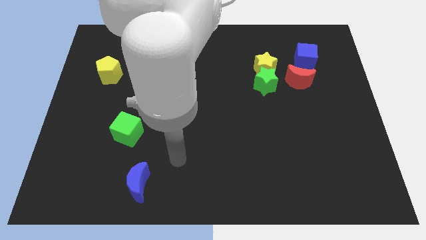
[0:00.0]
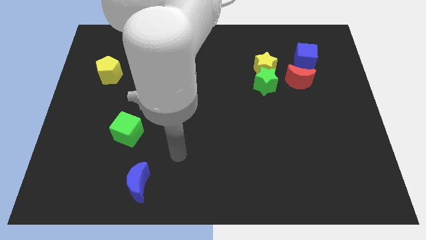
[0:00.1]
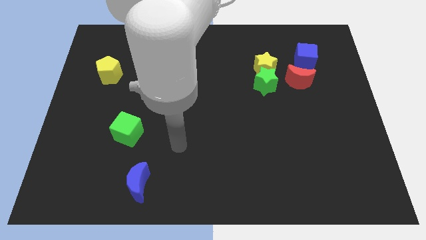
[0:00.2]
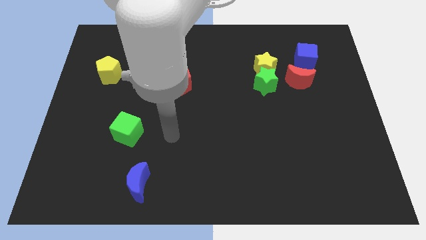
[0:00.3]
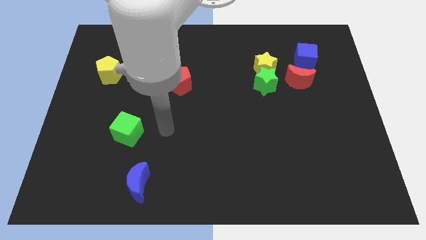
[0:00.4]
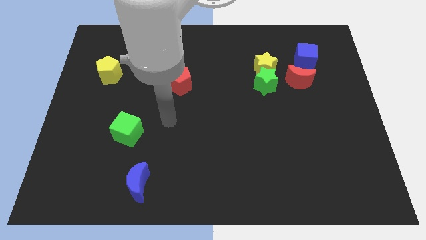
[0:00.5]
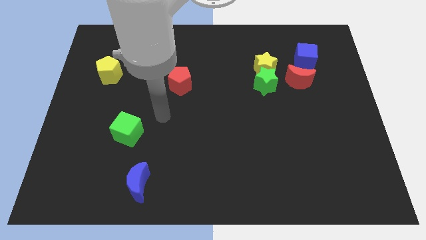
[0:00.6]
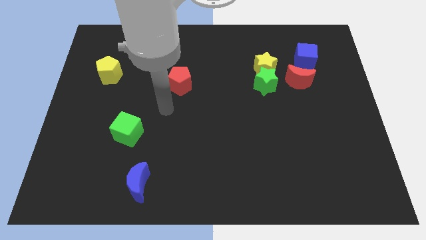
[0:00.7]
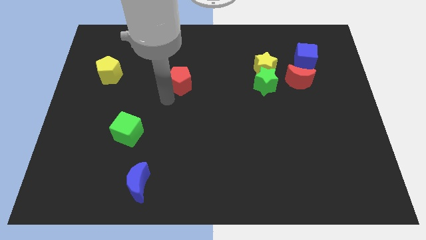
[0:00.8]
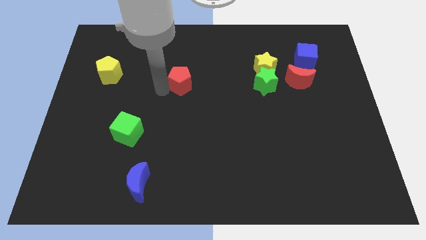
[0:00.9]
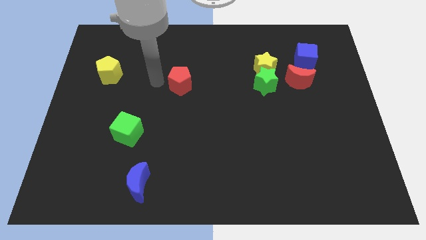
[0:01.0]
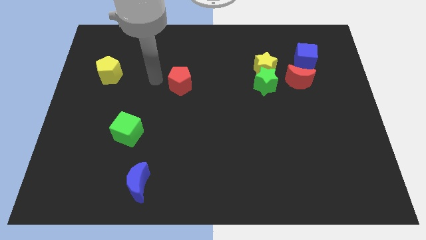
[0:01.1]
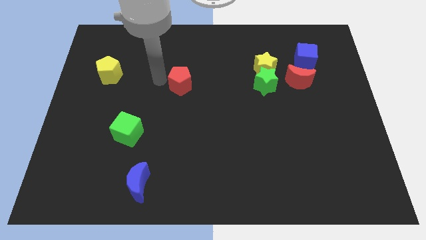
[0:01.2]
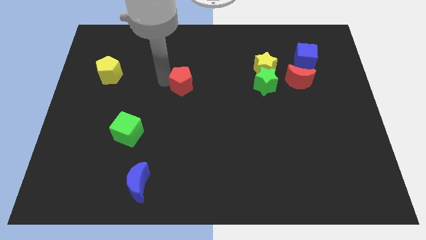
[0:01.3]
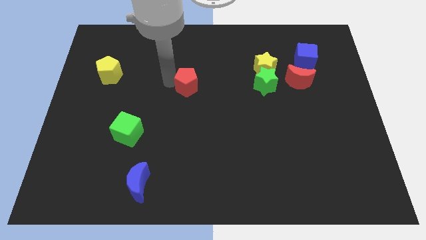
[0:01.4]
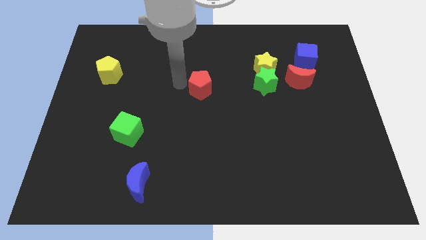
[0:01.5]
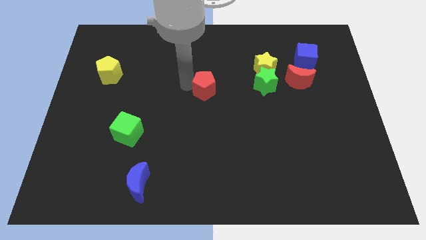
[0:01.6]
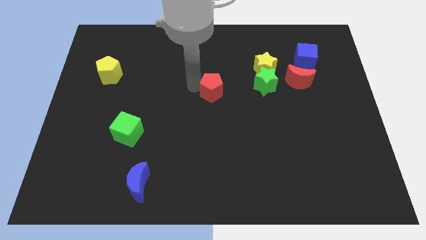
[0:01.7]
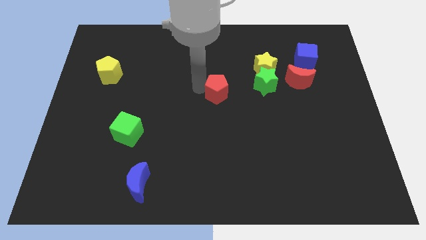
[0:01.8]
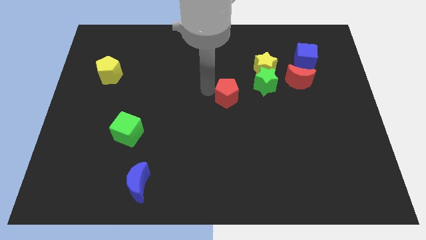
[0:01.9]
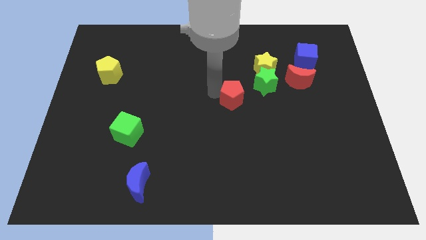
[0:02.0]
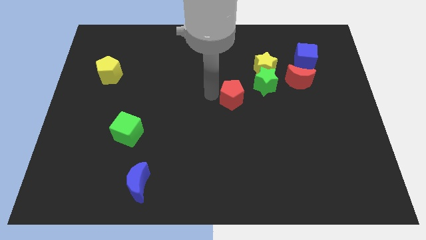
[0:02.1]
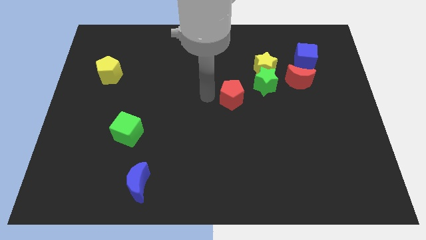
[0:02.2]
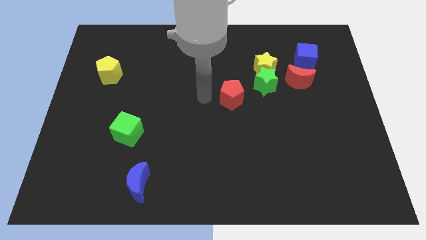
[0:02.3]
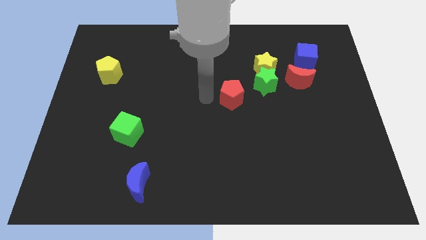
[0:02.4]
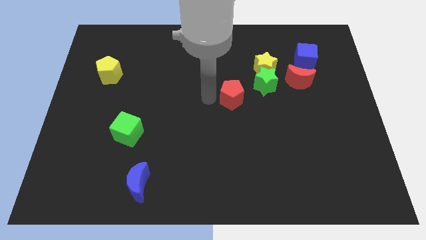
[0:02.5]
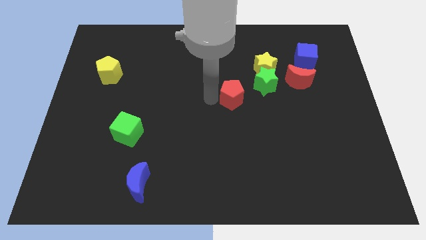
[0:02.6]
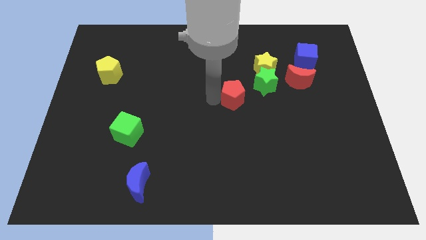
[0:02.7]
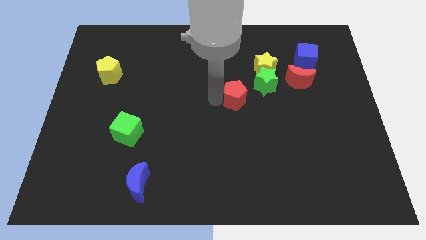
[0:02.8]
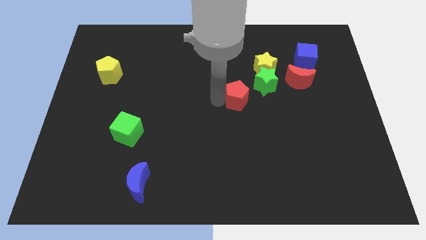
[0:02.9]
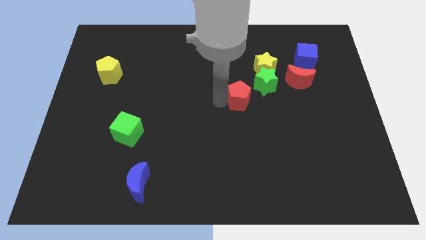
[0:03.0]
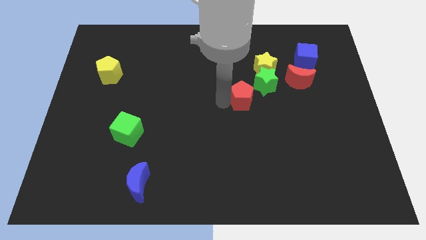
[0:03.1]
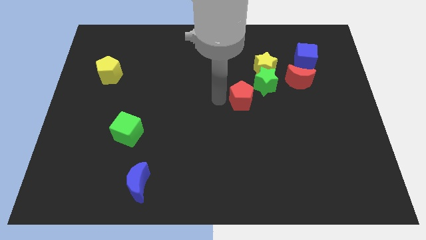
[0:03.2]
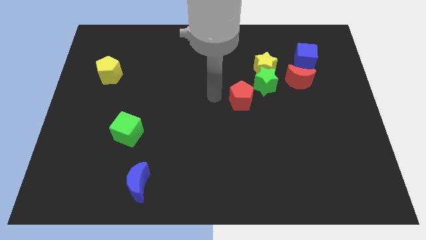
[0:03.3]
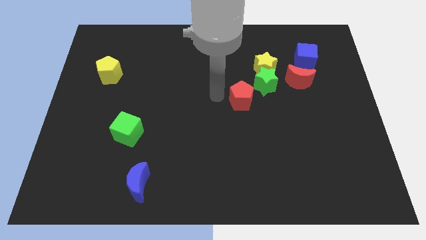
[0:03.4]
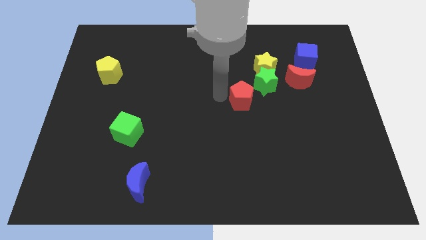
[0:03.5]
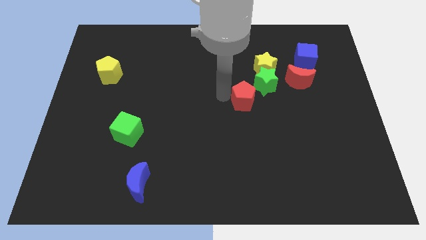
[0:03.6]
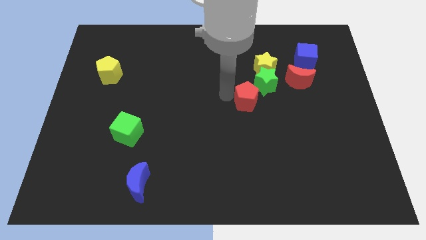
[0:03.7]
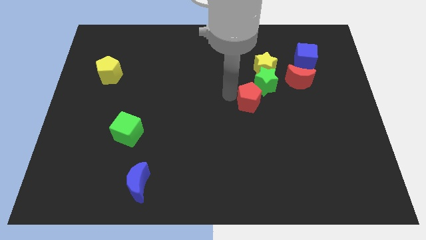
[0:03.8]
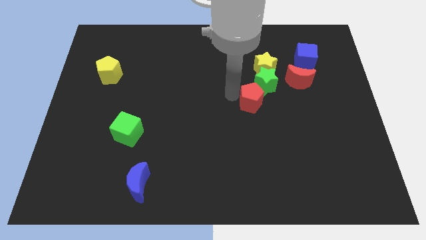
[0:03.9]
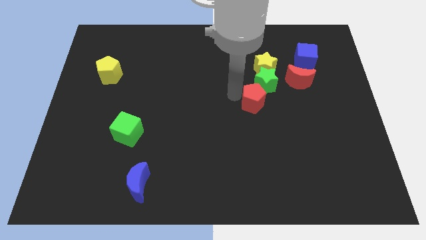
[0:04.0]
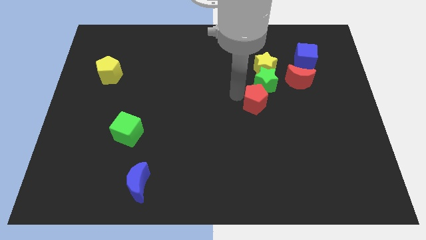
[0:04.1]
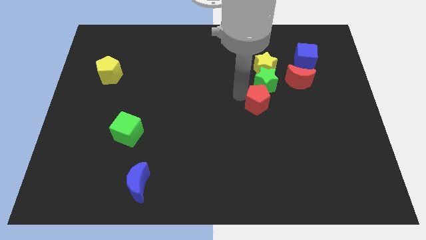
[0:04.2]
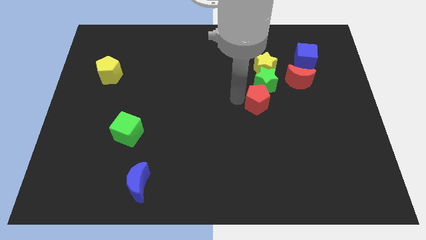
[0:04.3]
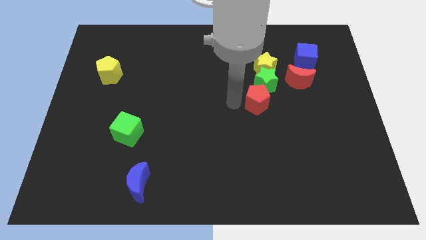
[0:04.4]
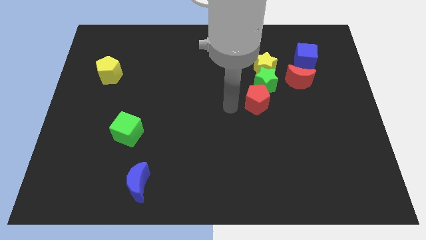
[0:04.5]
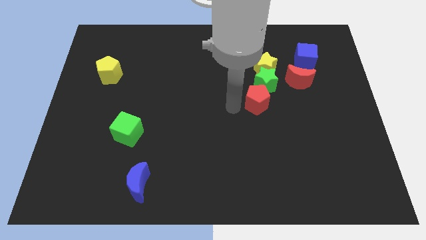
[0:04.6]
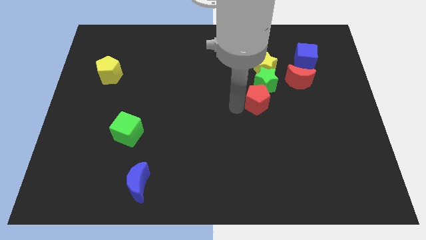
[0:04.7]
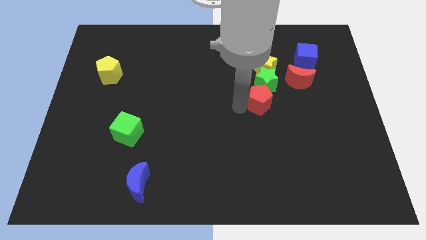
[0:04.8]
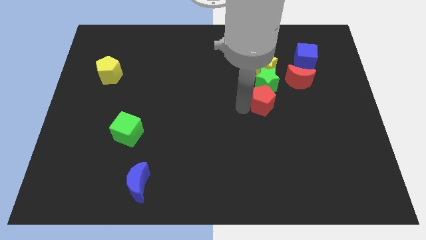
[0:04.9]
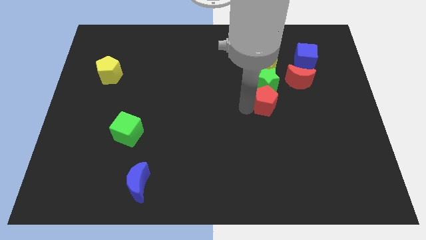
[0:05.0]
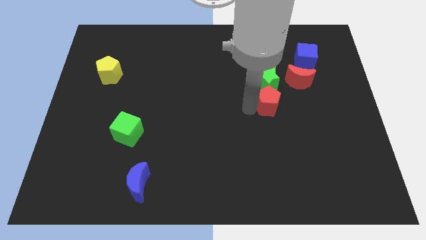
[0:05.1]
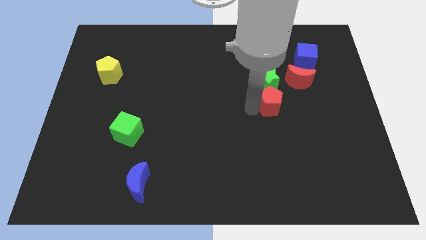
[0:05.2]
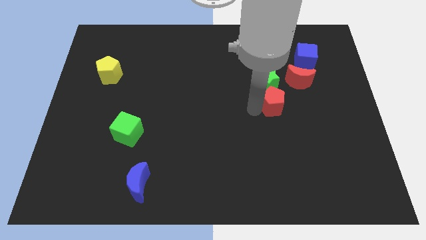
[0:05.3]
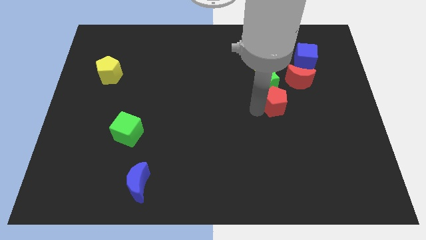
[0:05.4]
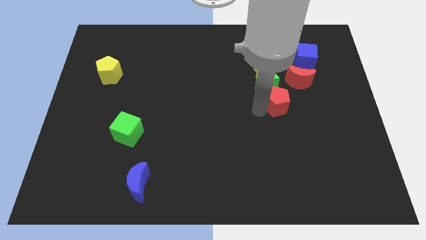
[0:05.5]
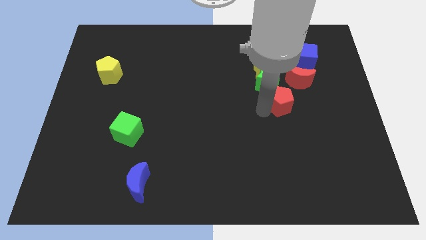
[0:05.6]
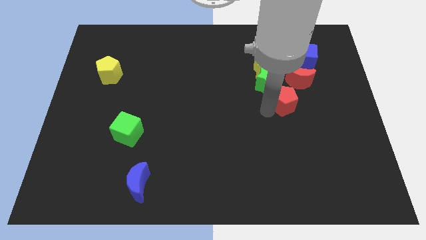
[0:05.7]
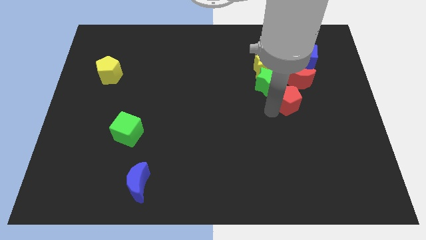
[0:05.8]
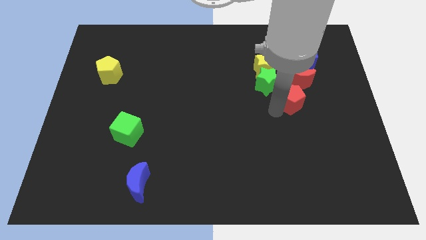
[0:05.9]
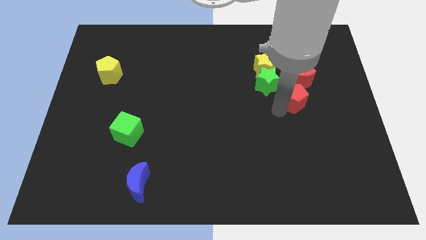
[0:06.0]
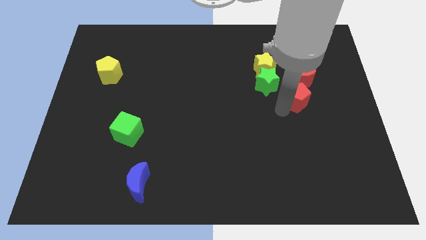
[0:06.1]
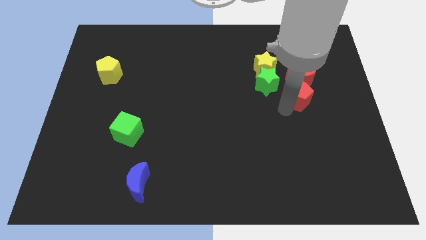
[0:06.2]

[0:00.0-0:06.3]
push the red pentagon next to the red moon
